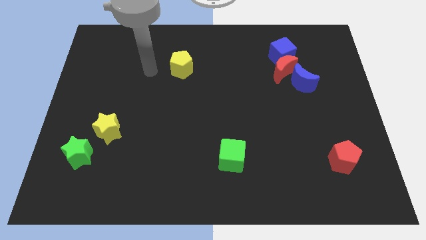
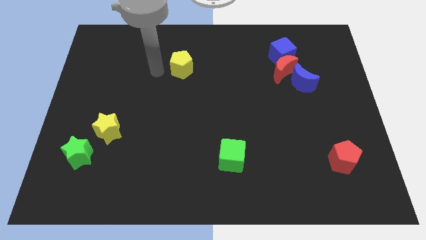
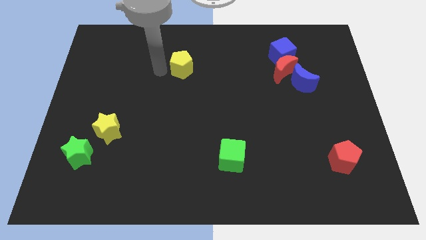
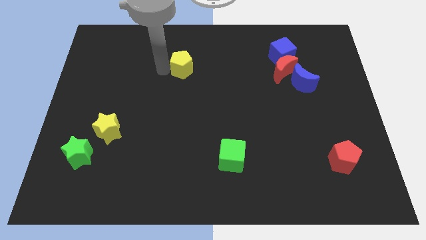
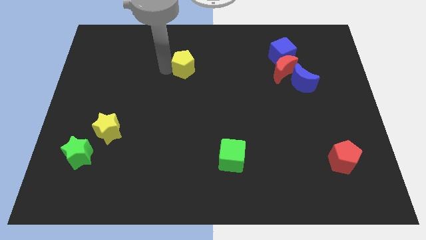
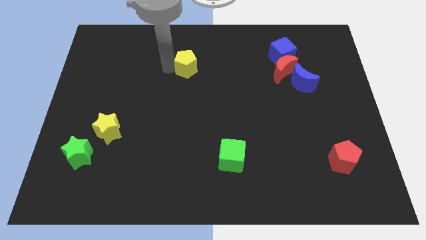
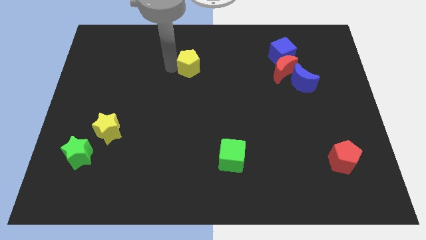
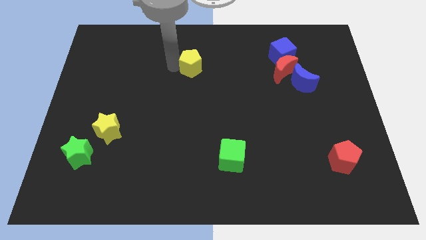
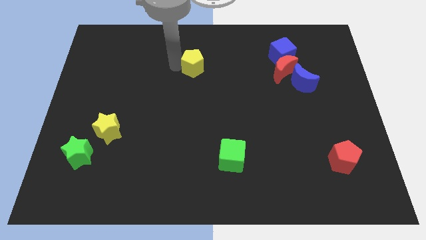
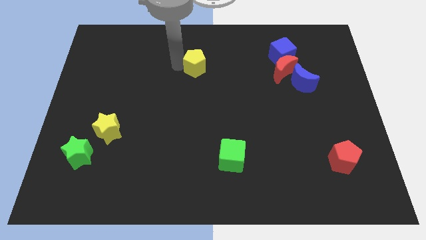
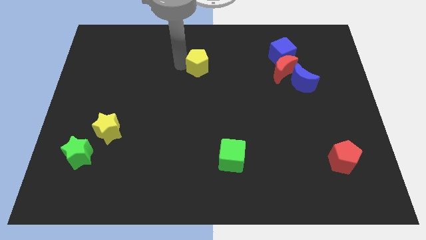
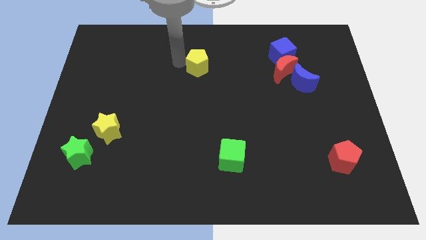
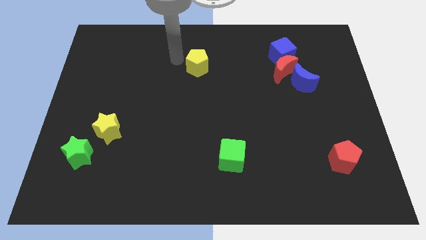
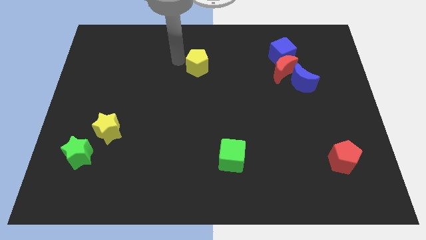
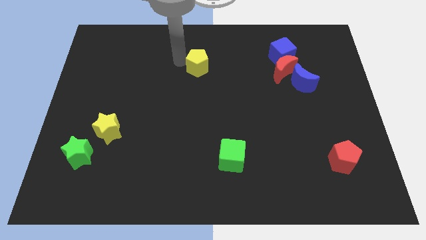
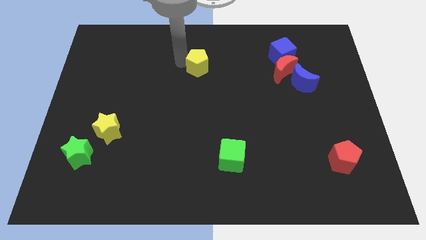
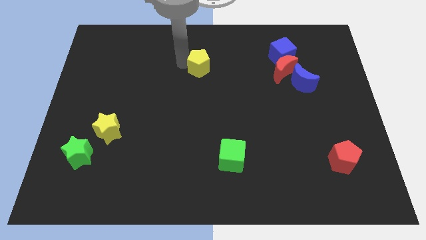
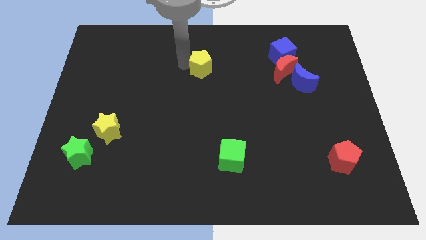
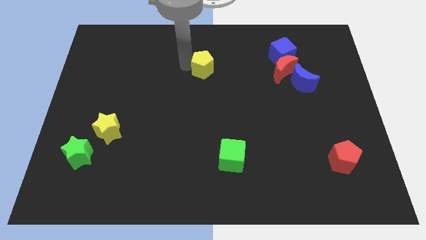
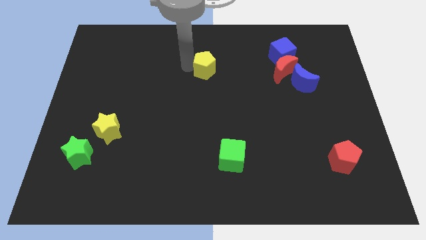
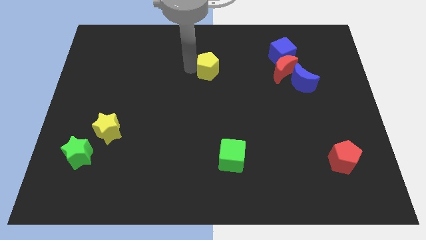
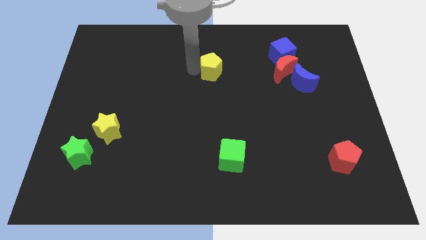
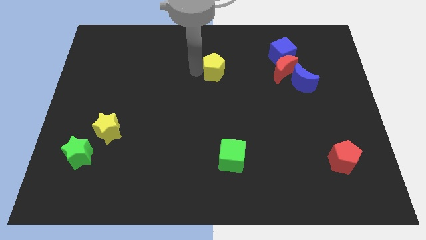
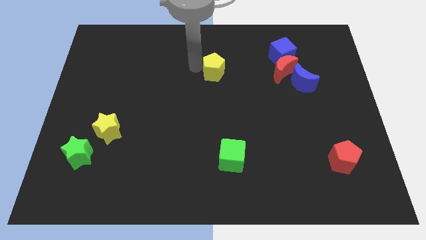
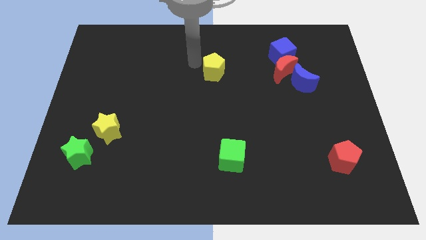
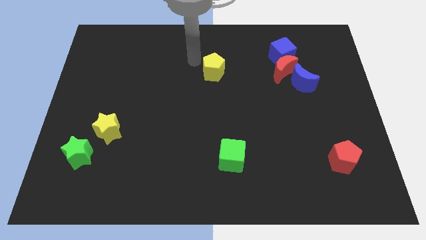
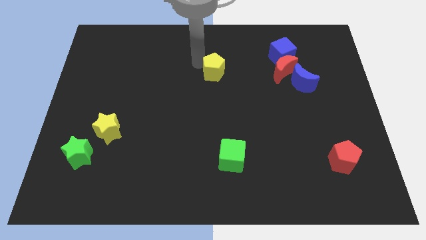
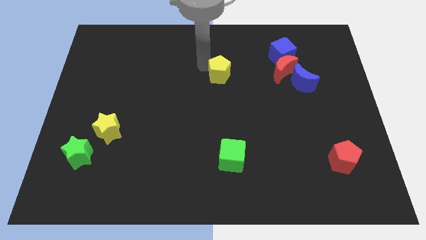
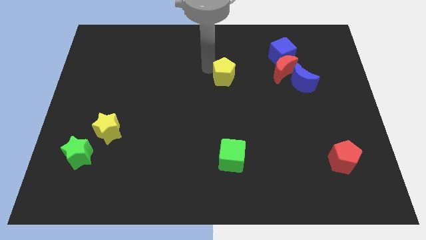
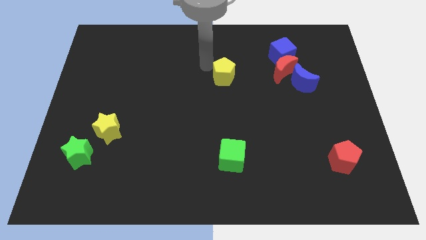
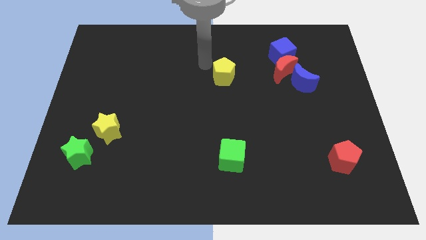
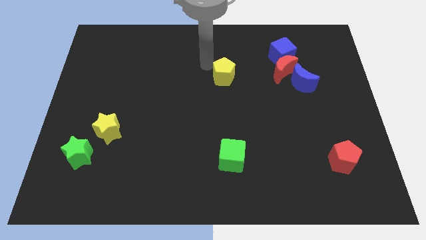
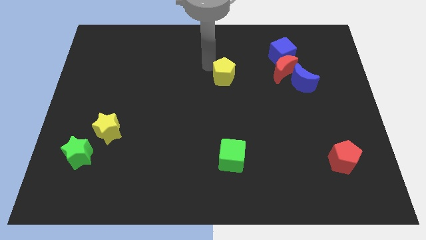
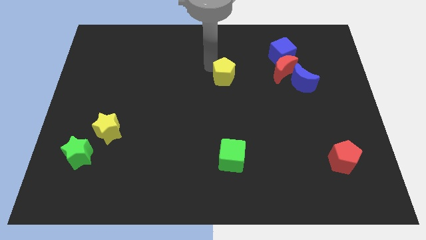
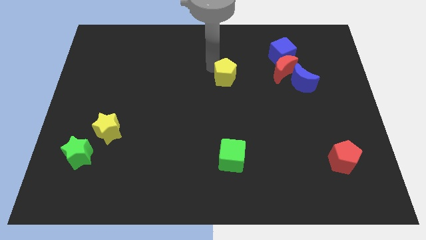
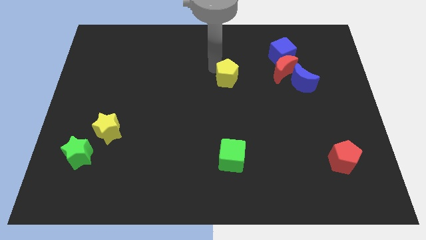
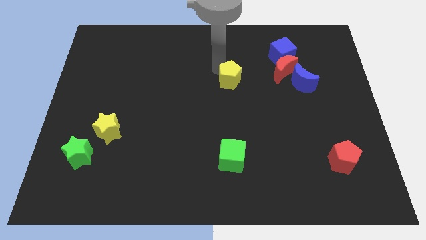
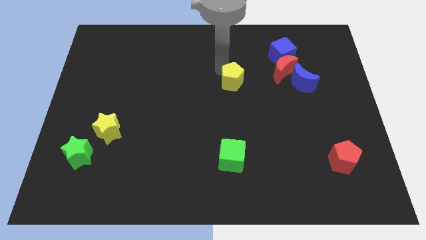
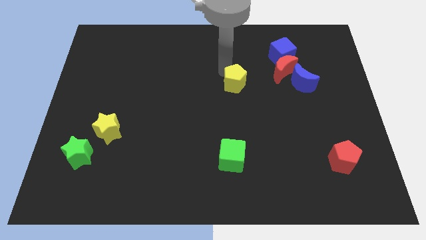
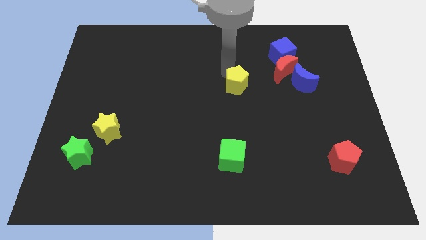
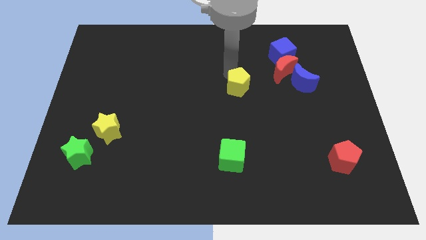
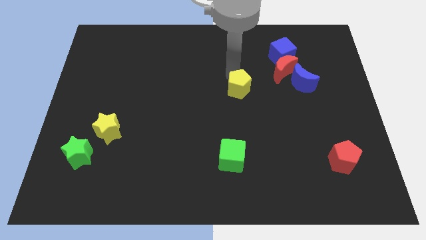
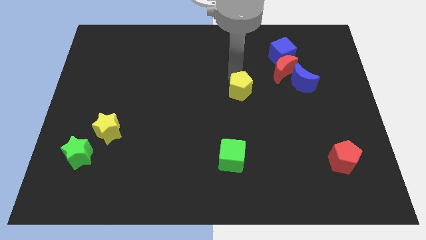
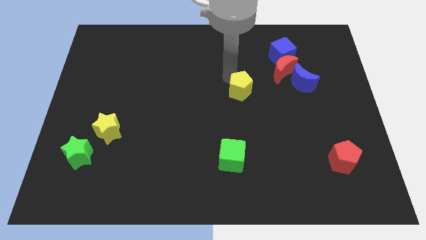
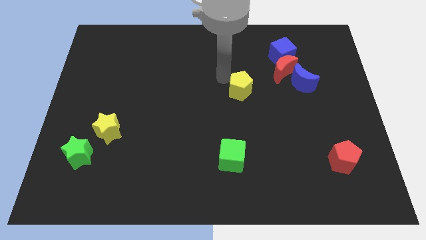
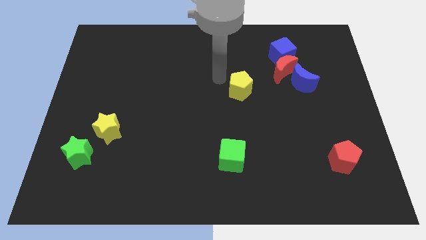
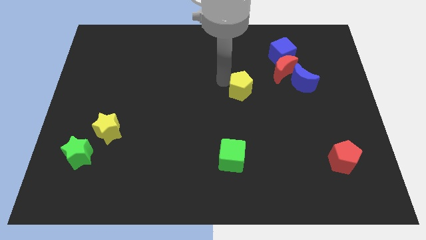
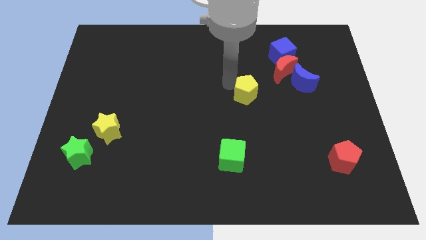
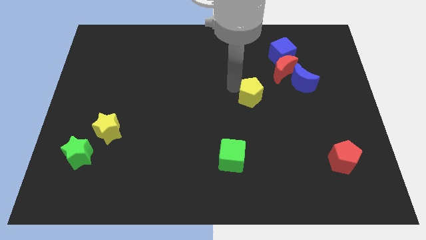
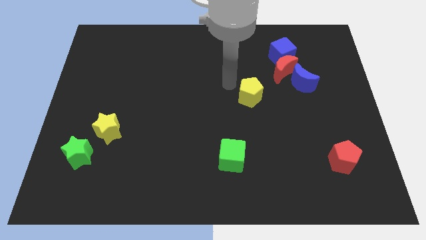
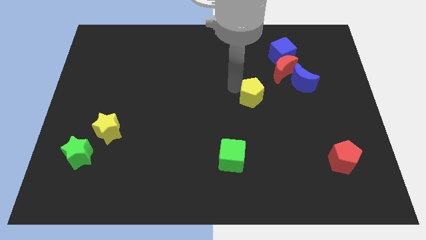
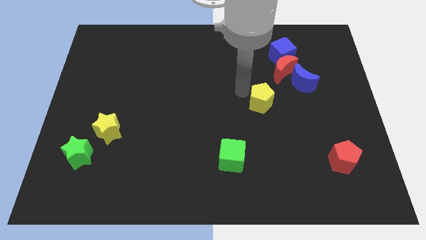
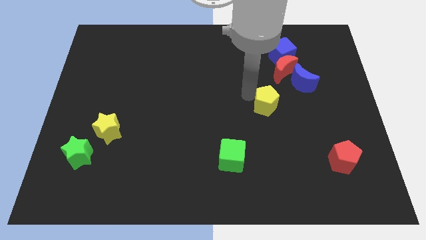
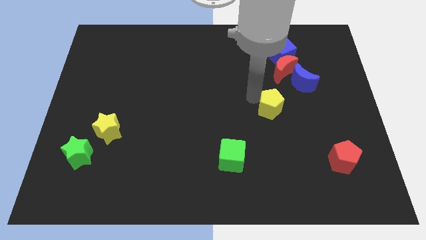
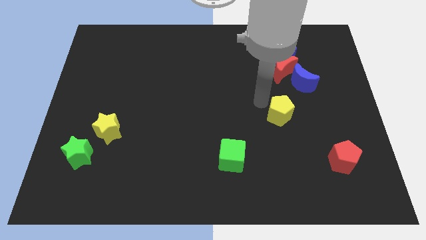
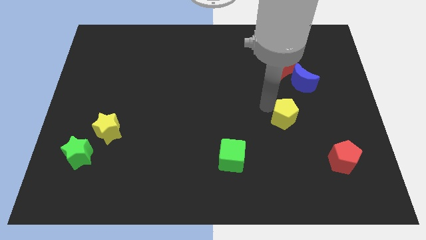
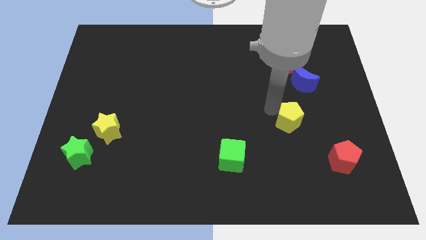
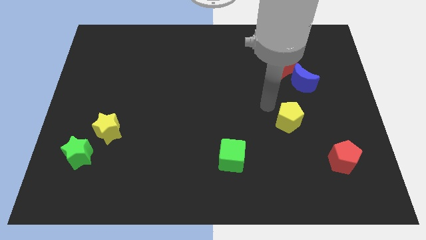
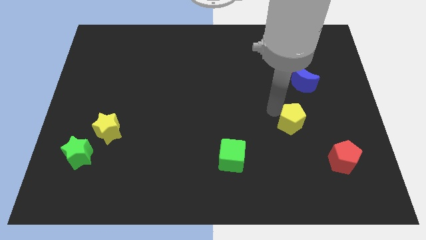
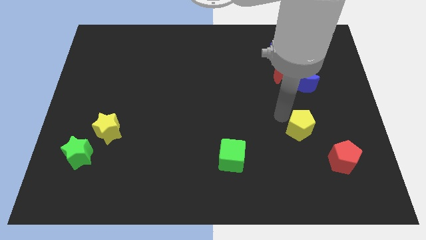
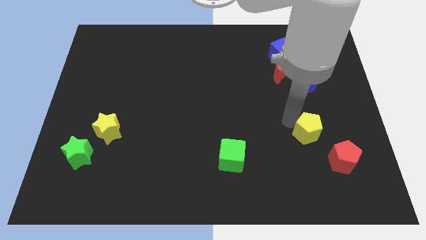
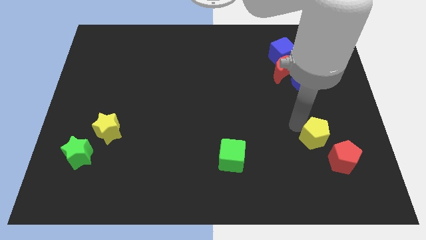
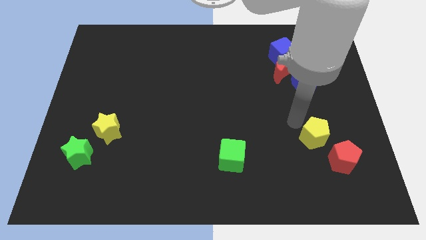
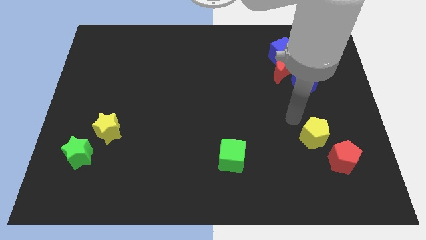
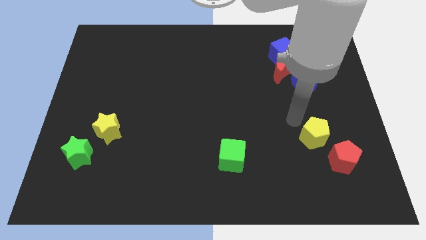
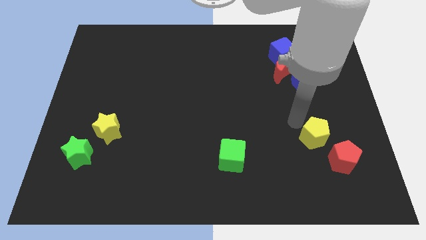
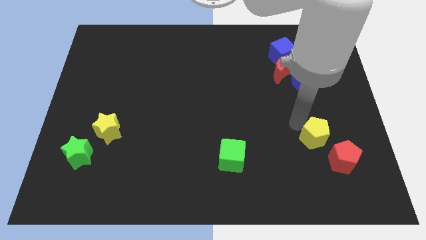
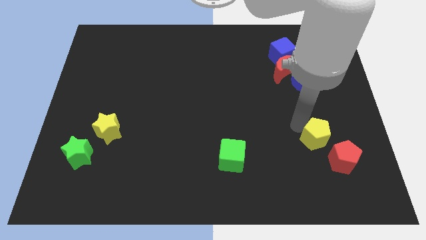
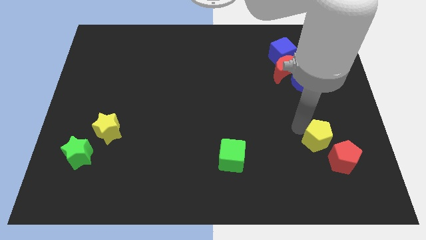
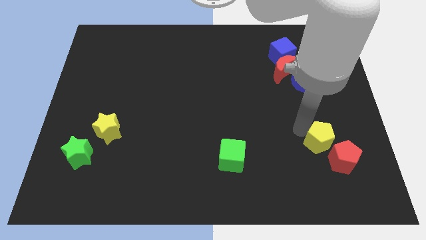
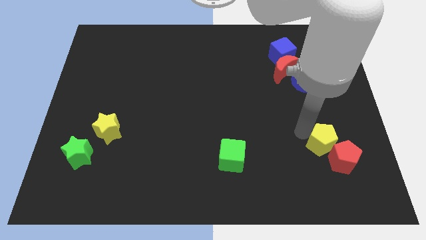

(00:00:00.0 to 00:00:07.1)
move the yellow pentagon towards the red pentagon
